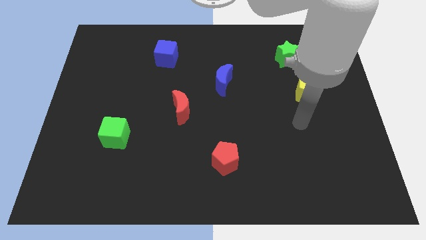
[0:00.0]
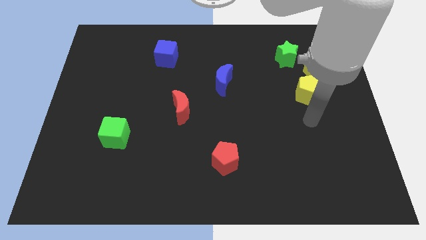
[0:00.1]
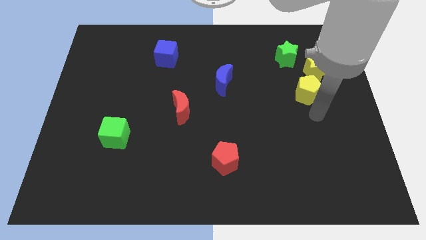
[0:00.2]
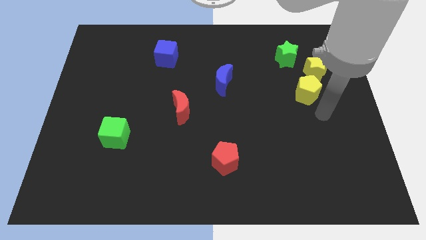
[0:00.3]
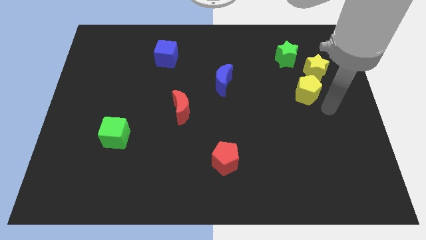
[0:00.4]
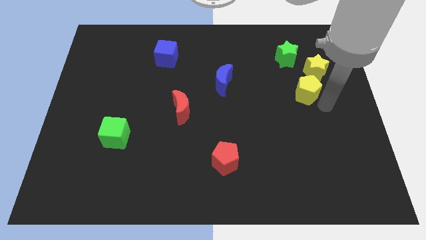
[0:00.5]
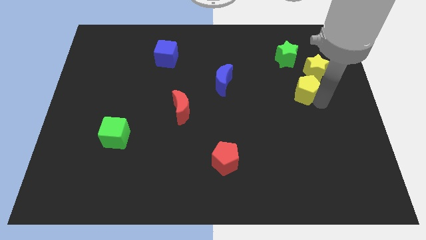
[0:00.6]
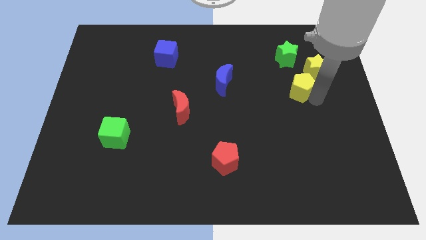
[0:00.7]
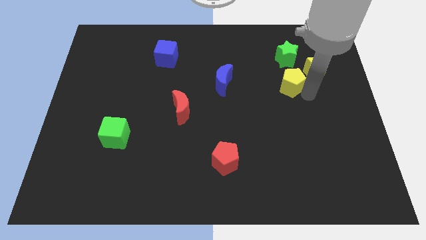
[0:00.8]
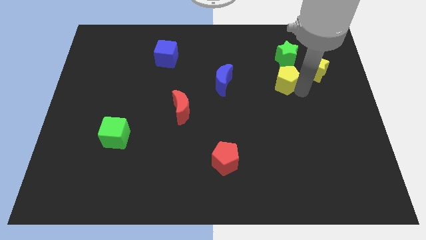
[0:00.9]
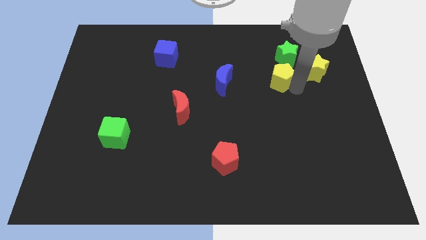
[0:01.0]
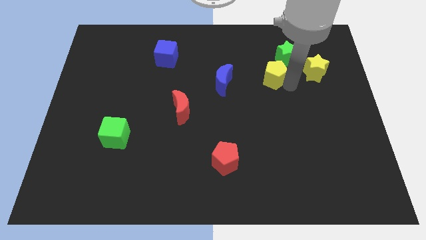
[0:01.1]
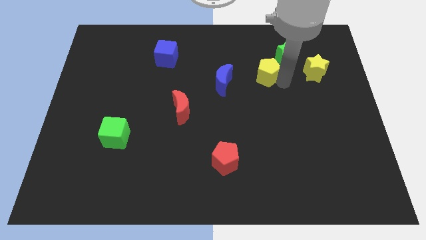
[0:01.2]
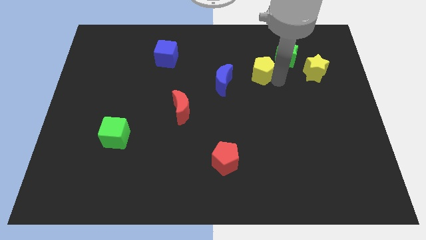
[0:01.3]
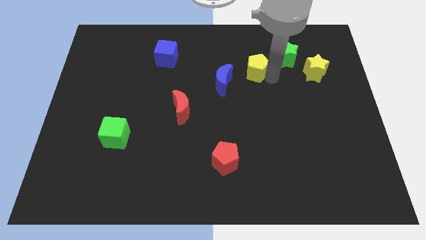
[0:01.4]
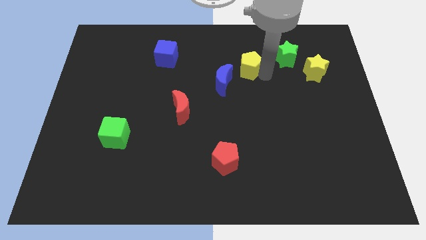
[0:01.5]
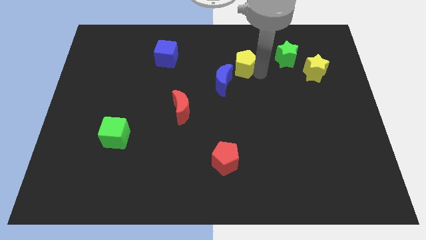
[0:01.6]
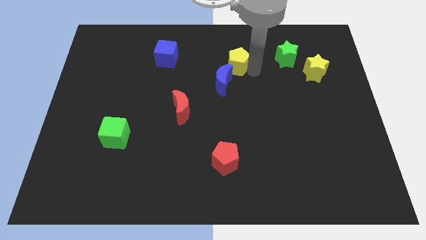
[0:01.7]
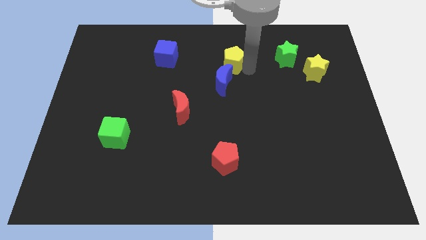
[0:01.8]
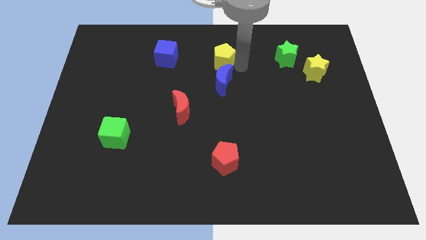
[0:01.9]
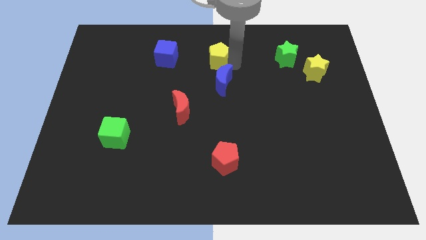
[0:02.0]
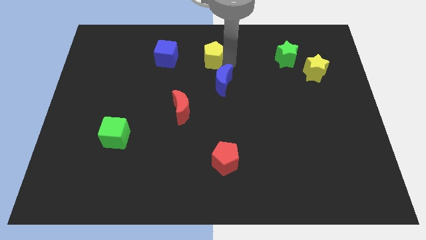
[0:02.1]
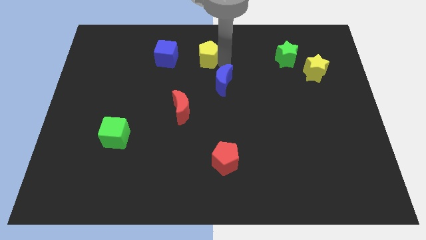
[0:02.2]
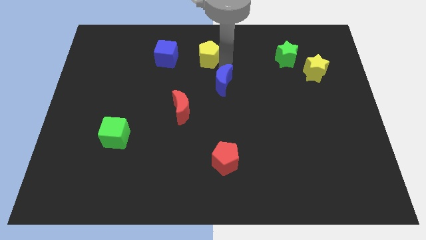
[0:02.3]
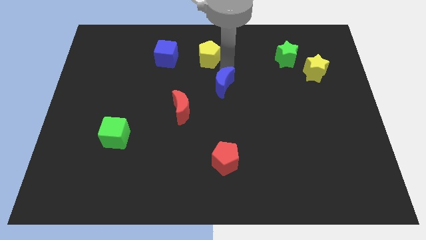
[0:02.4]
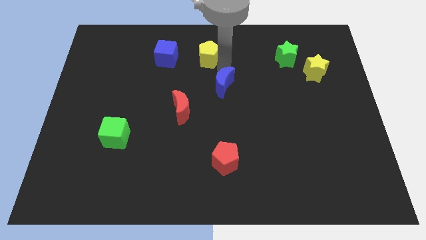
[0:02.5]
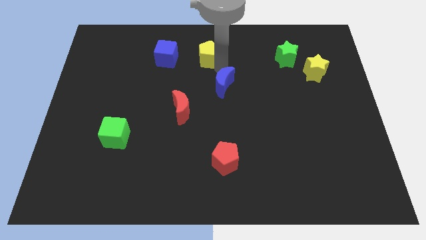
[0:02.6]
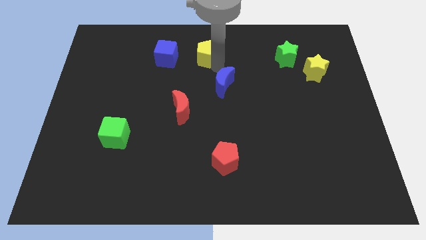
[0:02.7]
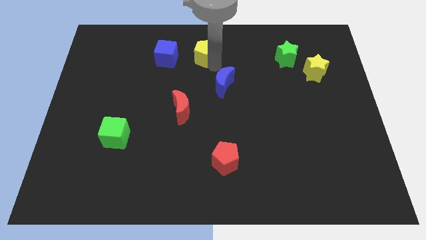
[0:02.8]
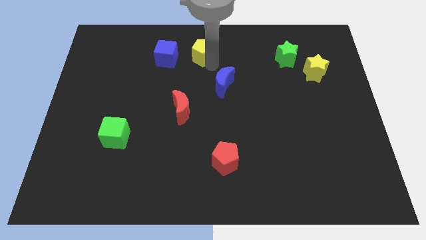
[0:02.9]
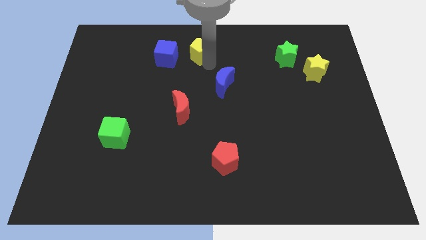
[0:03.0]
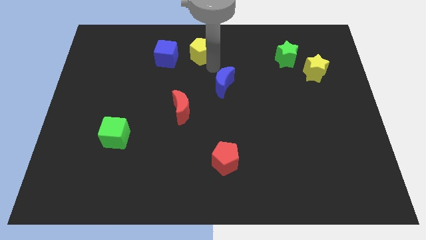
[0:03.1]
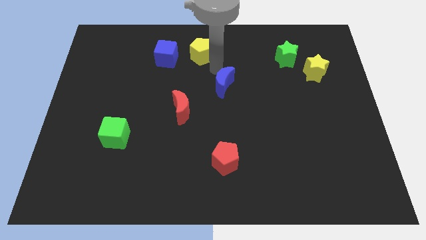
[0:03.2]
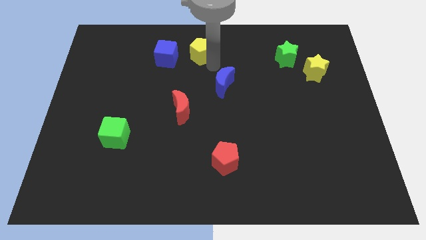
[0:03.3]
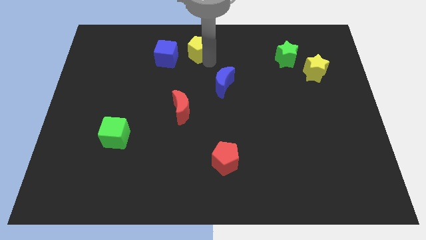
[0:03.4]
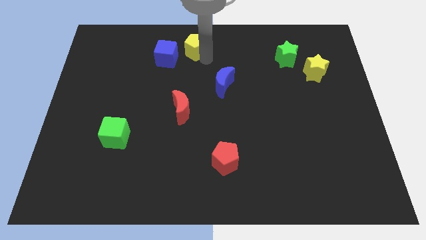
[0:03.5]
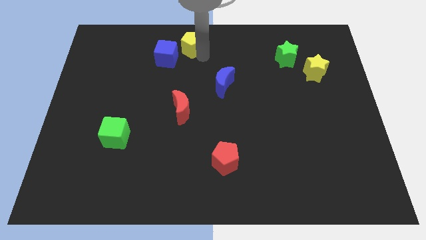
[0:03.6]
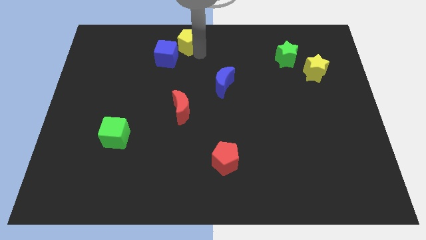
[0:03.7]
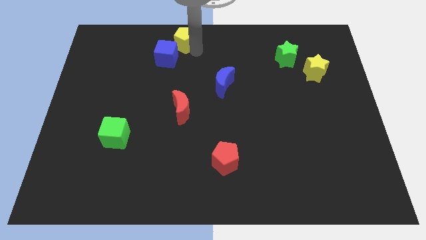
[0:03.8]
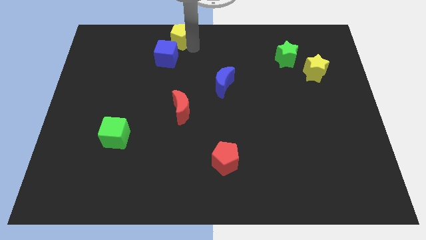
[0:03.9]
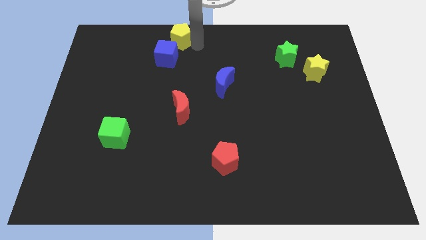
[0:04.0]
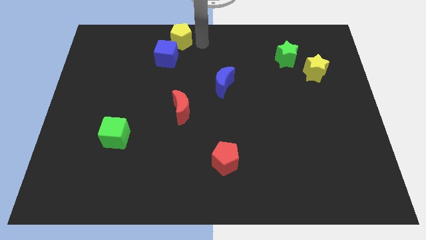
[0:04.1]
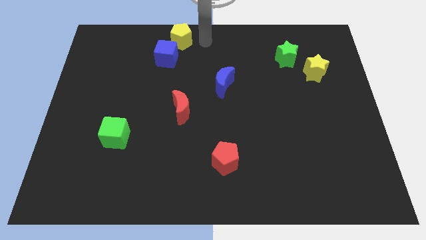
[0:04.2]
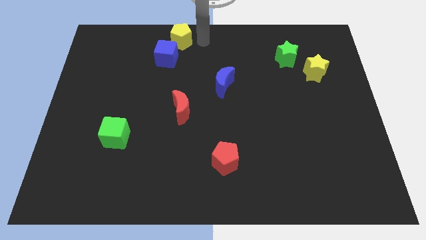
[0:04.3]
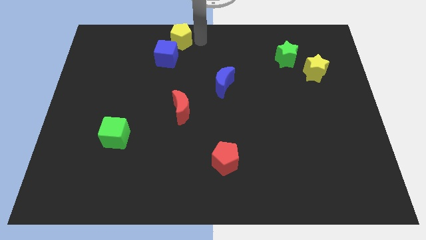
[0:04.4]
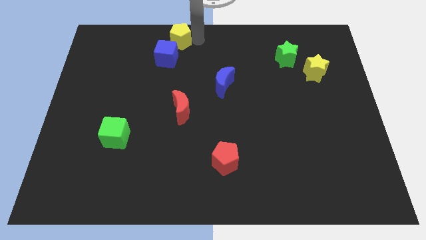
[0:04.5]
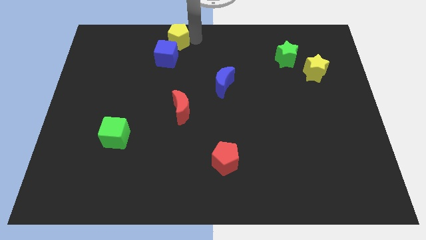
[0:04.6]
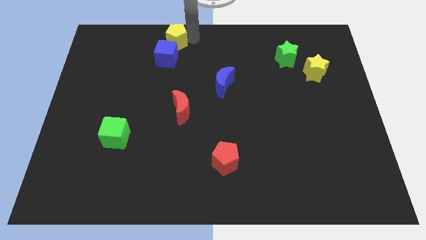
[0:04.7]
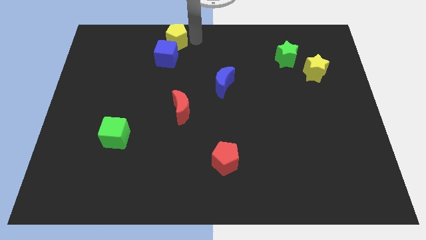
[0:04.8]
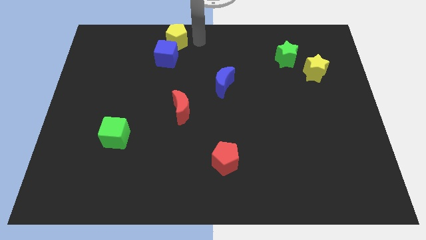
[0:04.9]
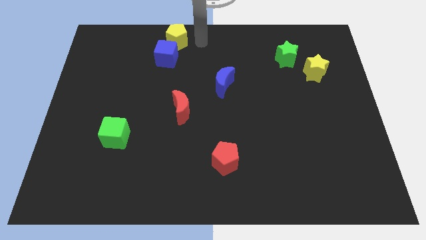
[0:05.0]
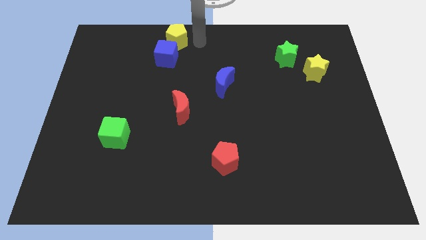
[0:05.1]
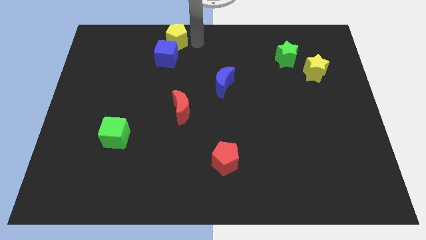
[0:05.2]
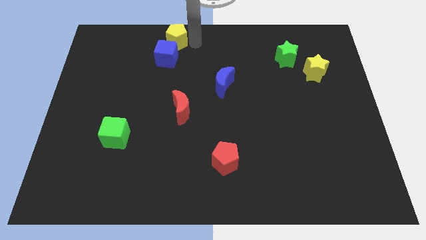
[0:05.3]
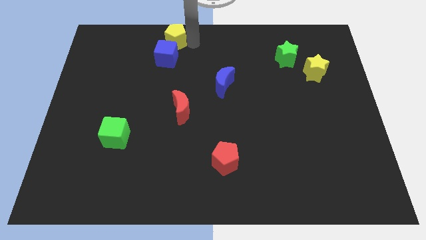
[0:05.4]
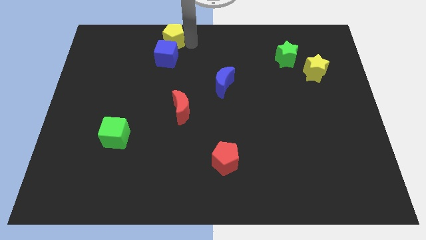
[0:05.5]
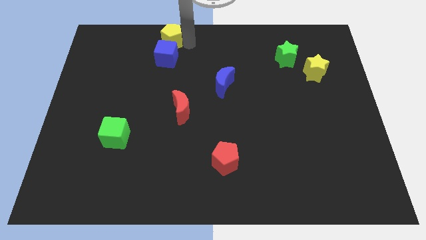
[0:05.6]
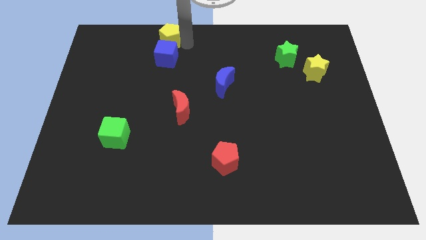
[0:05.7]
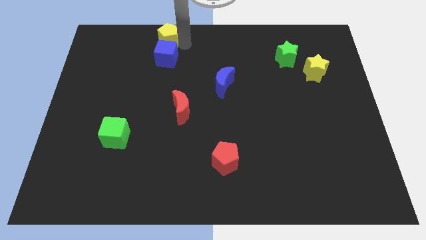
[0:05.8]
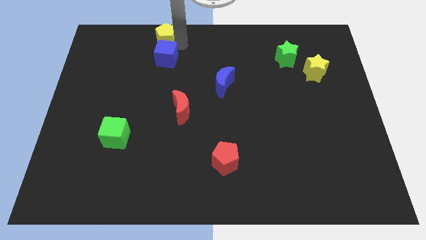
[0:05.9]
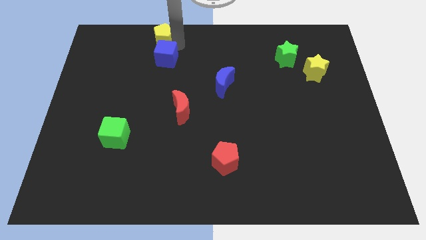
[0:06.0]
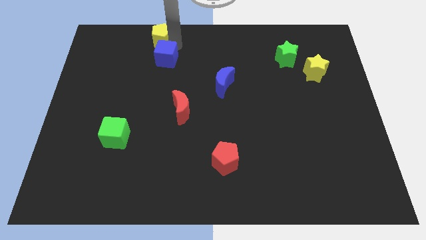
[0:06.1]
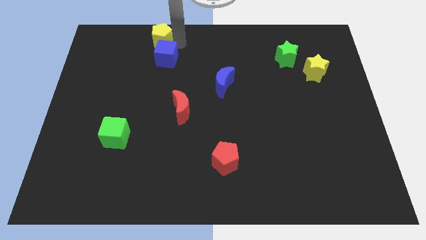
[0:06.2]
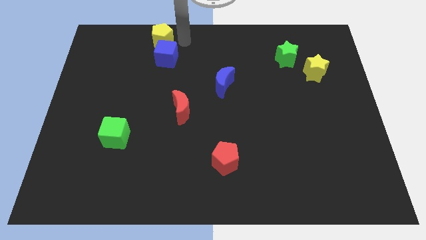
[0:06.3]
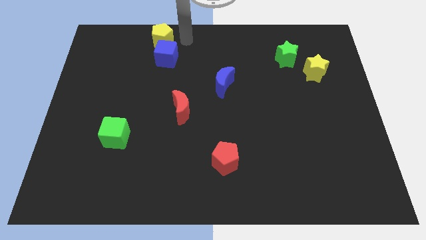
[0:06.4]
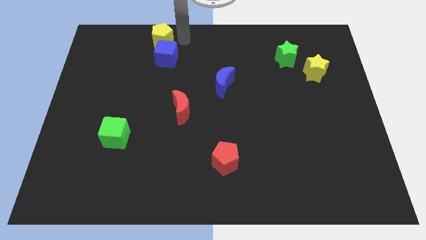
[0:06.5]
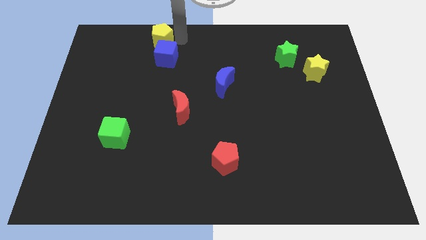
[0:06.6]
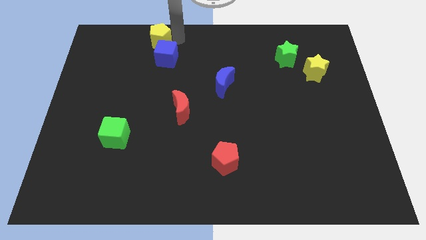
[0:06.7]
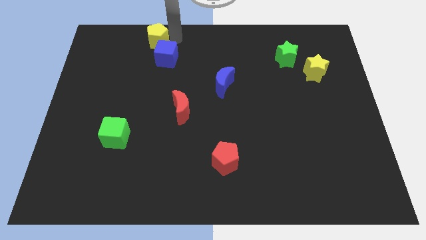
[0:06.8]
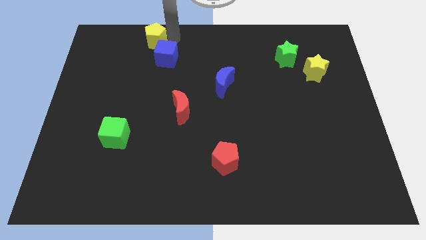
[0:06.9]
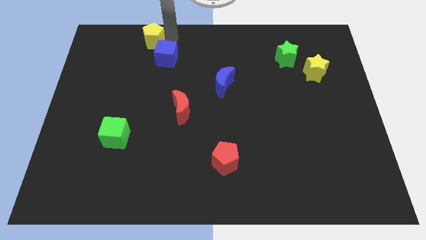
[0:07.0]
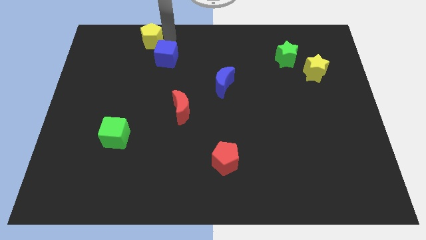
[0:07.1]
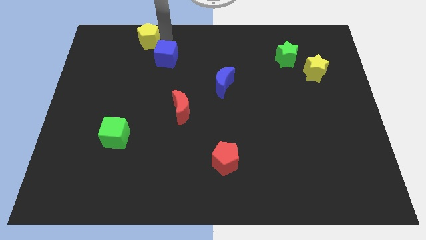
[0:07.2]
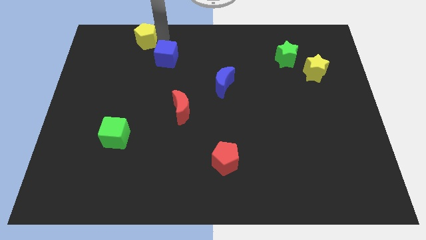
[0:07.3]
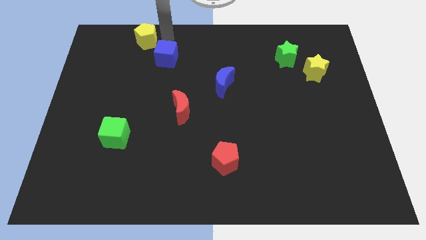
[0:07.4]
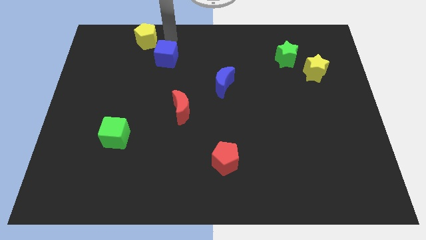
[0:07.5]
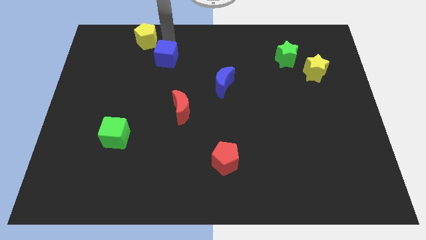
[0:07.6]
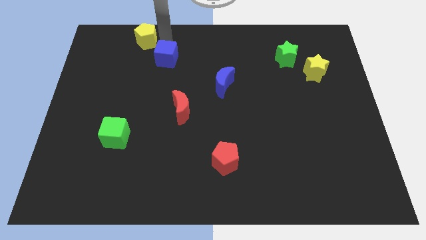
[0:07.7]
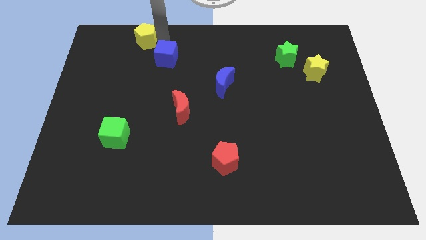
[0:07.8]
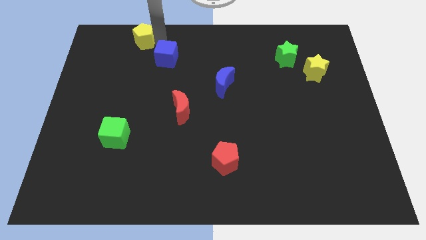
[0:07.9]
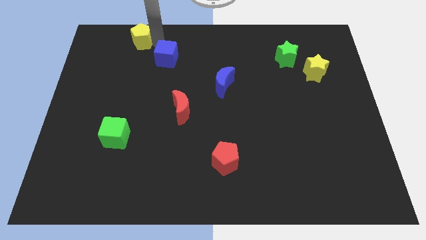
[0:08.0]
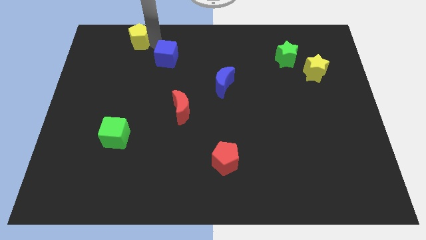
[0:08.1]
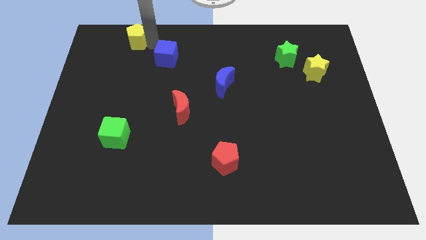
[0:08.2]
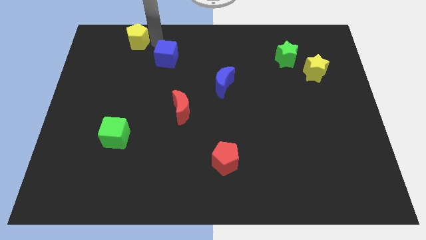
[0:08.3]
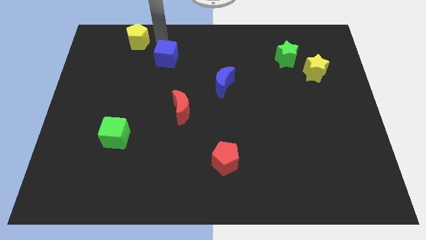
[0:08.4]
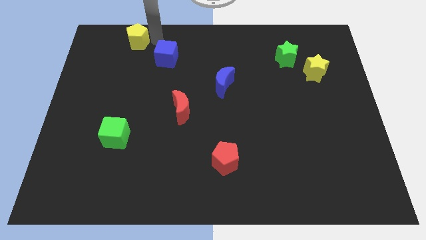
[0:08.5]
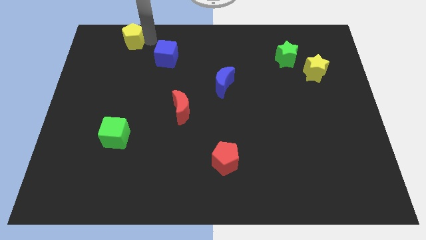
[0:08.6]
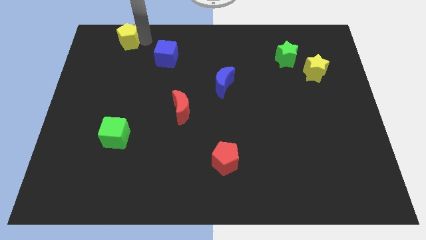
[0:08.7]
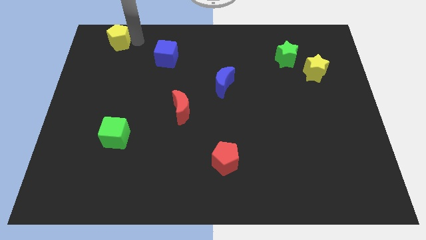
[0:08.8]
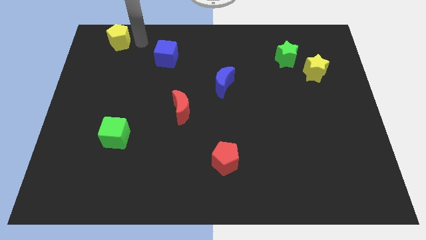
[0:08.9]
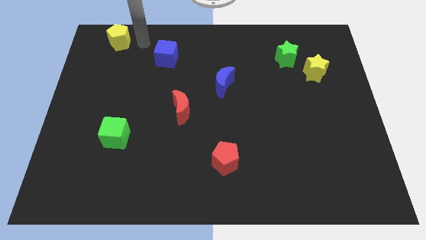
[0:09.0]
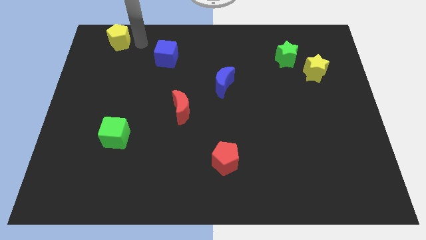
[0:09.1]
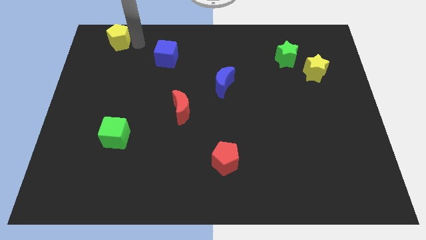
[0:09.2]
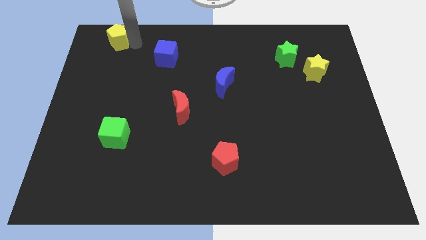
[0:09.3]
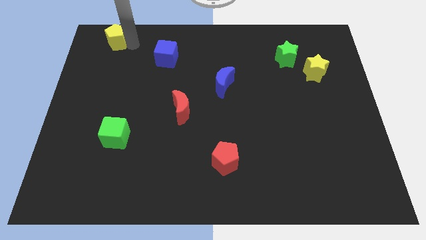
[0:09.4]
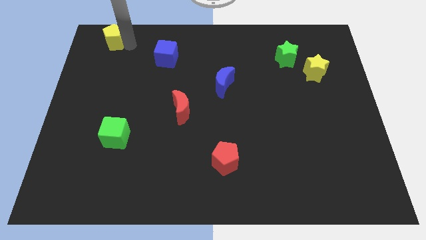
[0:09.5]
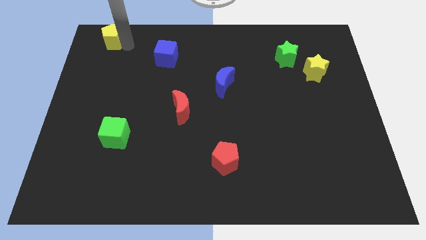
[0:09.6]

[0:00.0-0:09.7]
move the yellow pentagon to the top left corner
